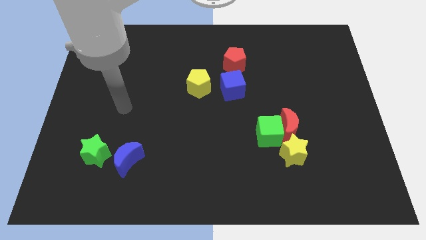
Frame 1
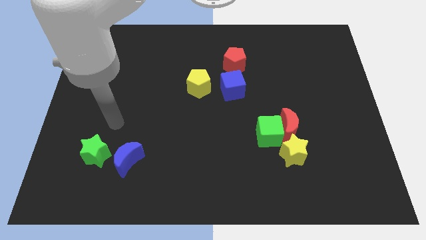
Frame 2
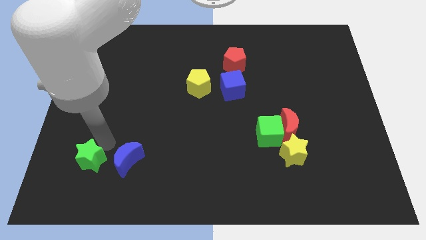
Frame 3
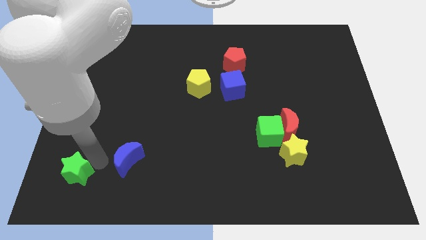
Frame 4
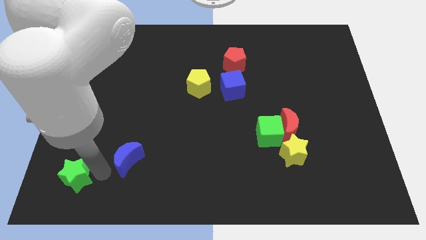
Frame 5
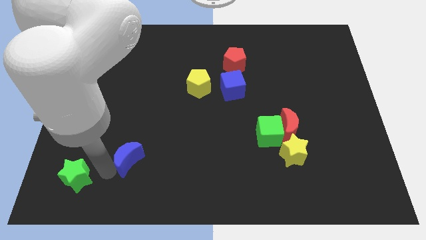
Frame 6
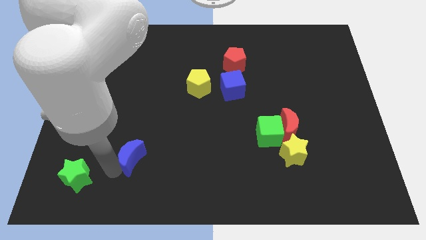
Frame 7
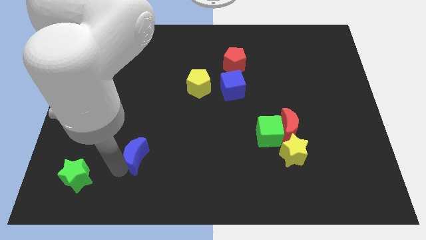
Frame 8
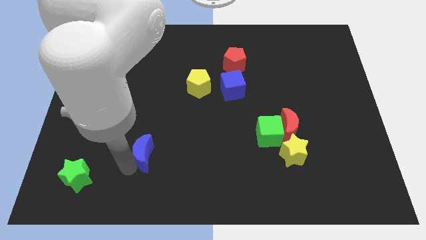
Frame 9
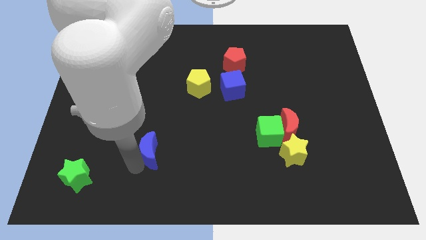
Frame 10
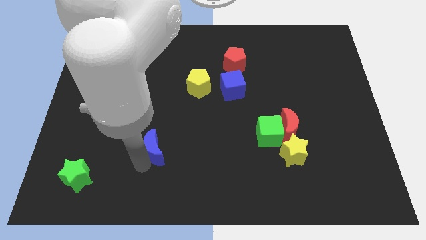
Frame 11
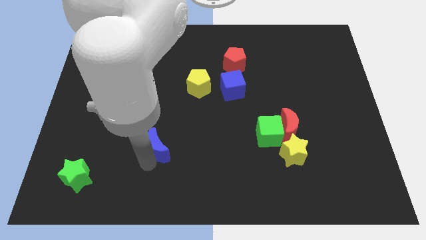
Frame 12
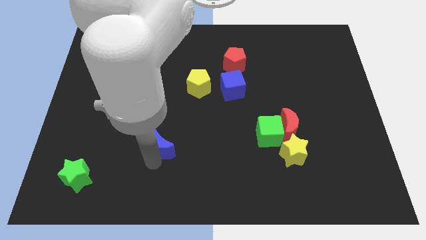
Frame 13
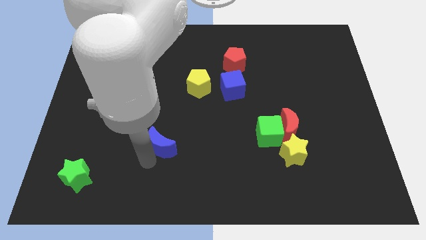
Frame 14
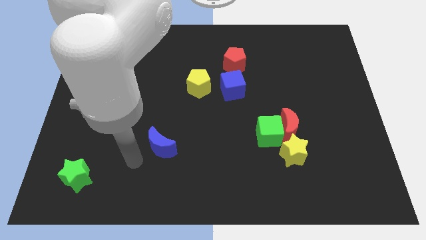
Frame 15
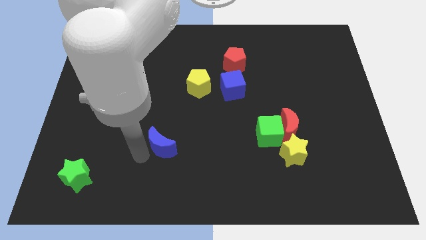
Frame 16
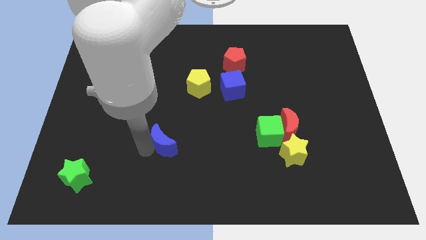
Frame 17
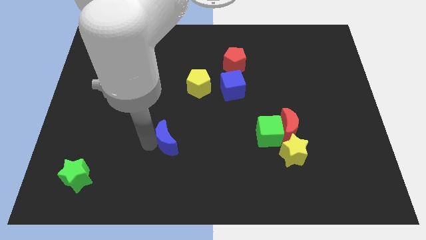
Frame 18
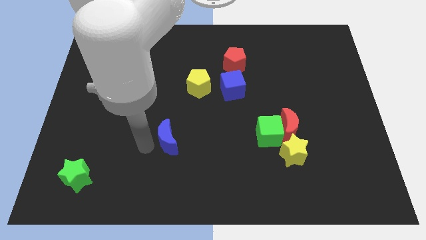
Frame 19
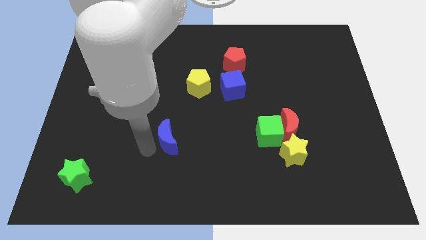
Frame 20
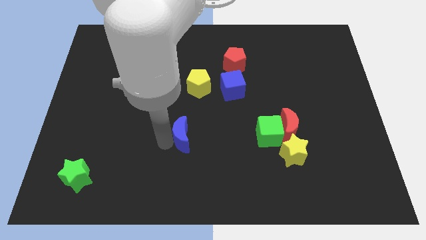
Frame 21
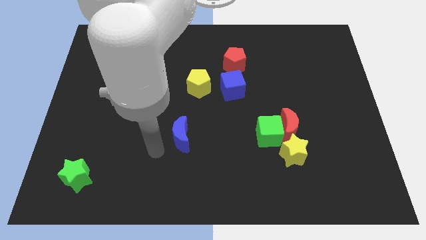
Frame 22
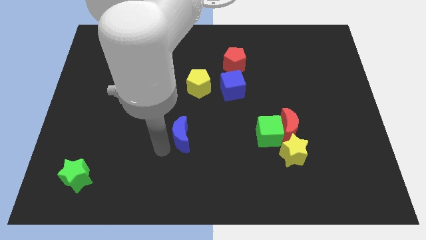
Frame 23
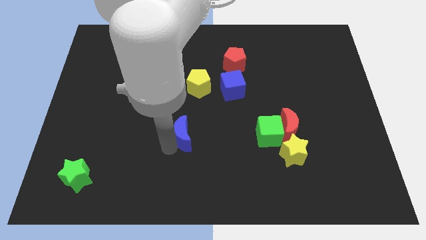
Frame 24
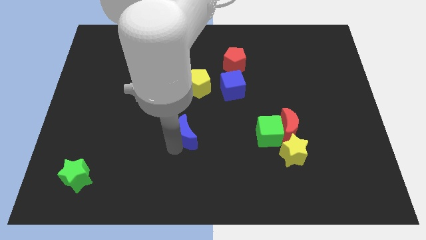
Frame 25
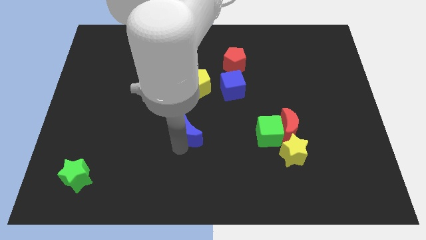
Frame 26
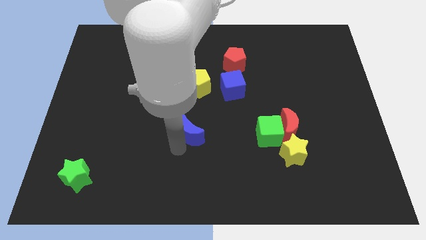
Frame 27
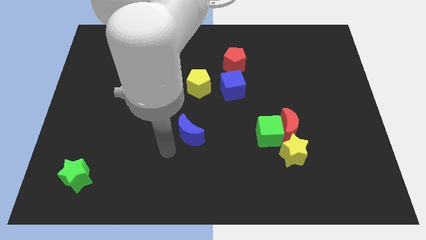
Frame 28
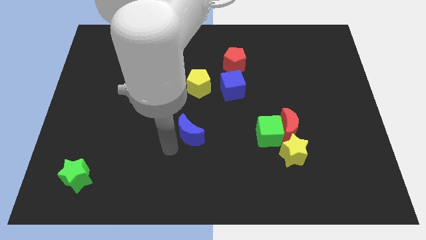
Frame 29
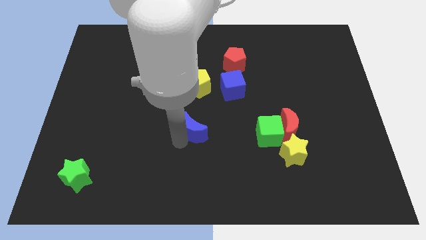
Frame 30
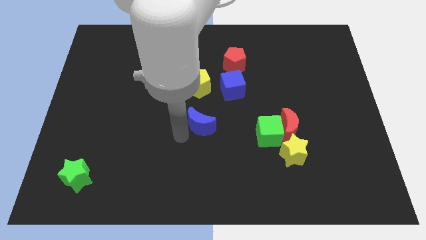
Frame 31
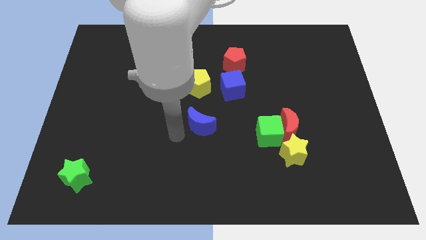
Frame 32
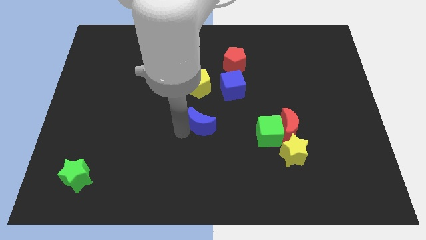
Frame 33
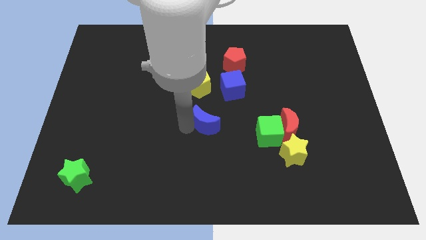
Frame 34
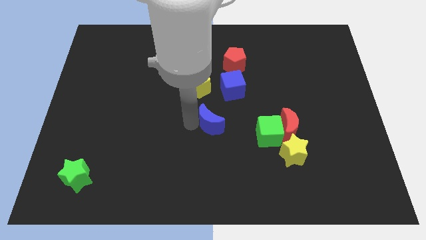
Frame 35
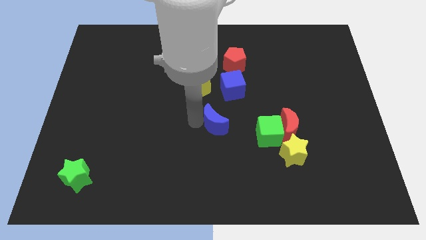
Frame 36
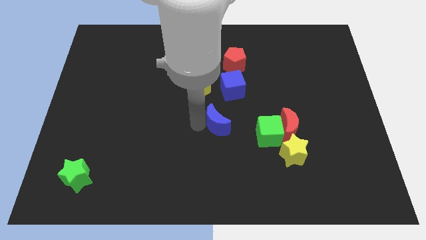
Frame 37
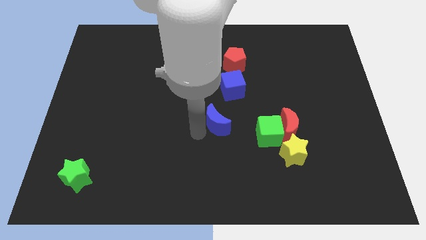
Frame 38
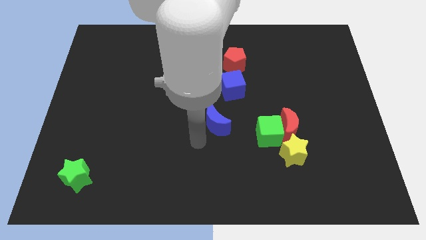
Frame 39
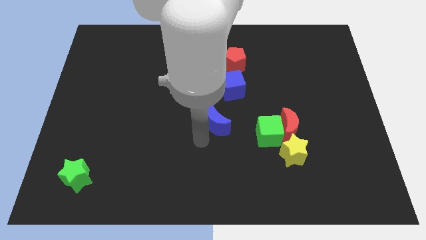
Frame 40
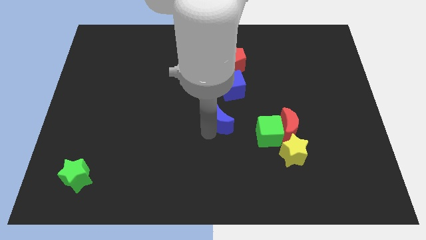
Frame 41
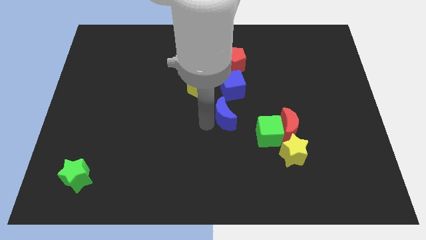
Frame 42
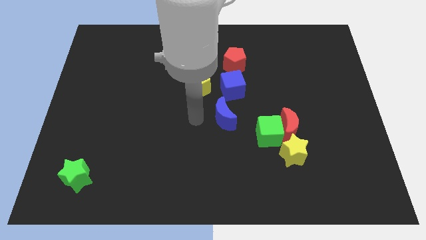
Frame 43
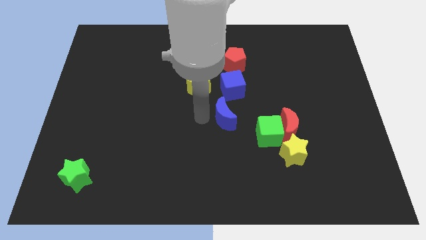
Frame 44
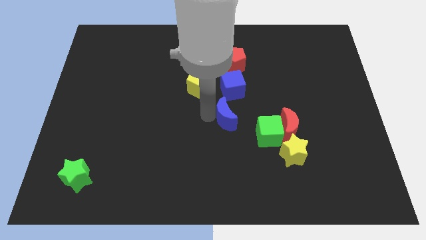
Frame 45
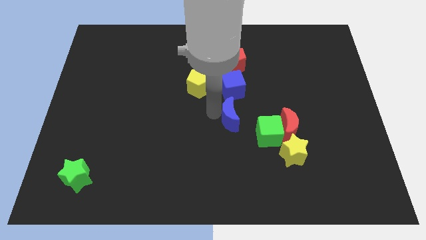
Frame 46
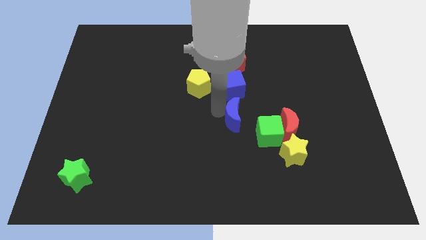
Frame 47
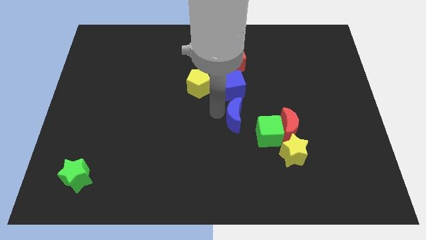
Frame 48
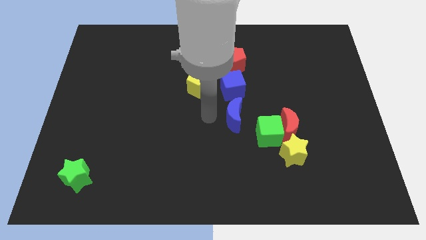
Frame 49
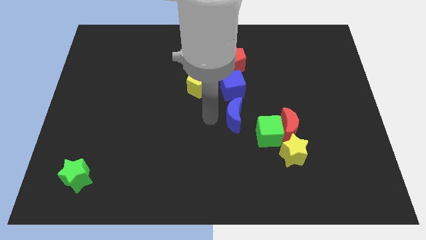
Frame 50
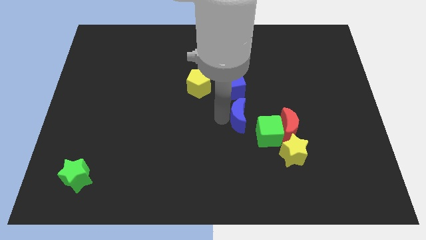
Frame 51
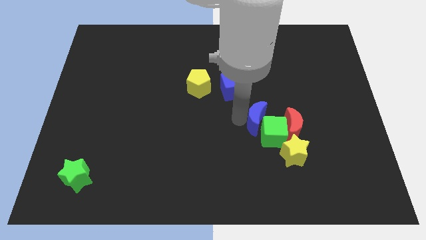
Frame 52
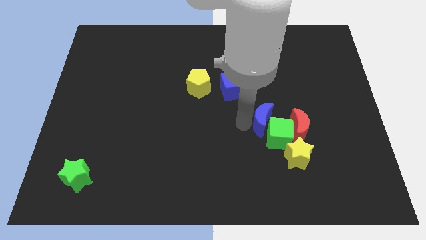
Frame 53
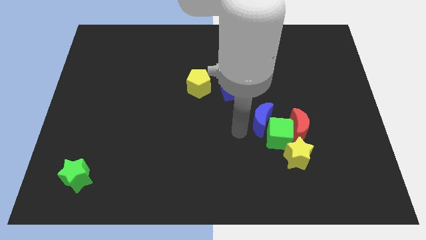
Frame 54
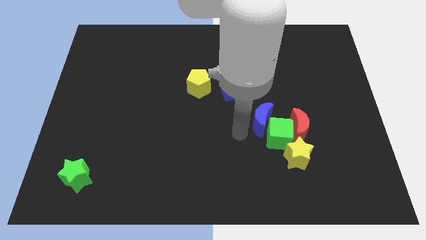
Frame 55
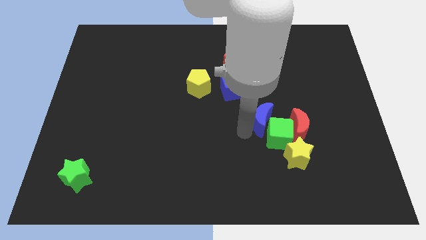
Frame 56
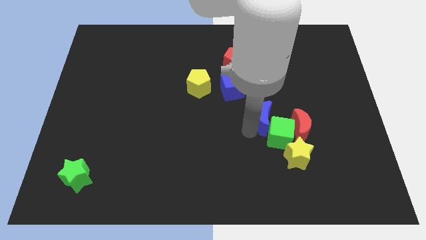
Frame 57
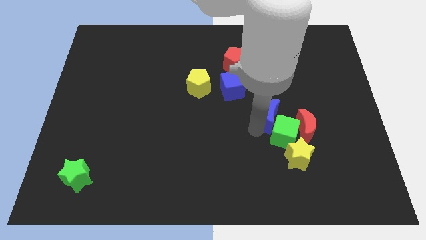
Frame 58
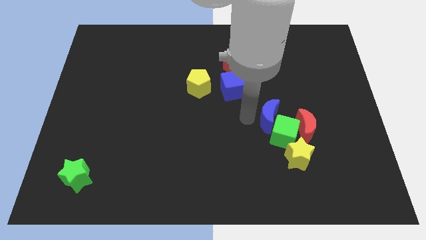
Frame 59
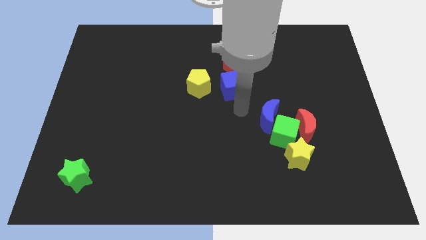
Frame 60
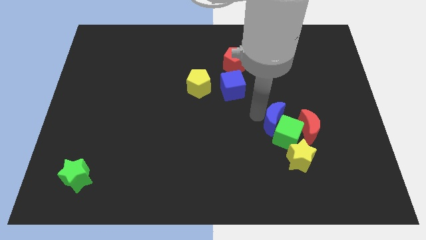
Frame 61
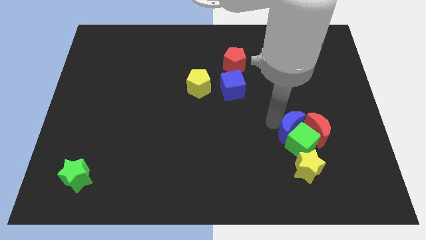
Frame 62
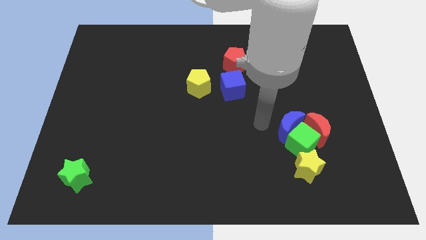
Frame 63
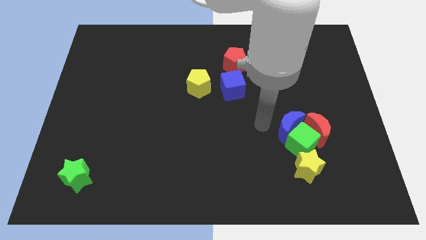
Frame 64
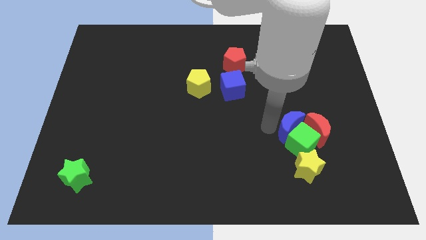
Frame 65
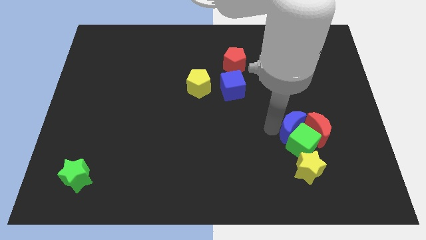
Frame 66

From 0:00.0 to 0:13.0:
slide the blue moon to the red moon

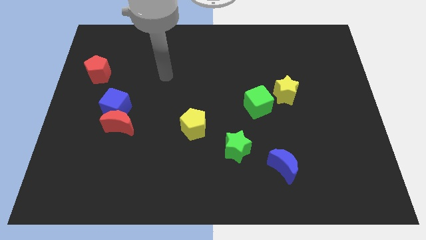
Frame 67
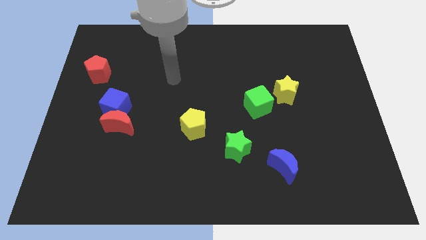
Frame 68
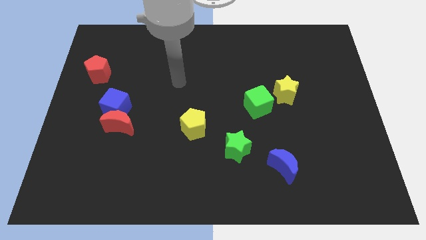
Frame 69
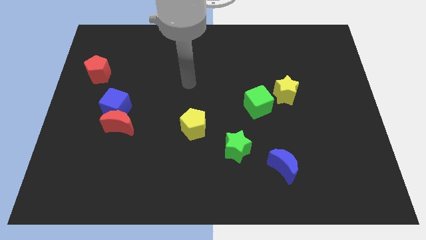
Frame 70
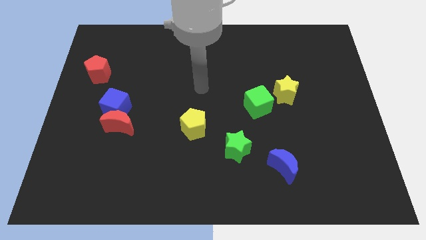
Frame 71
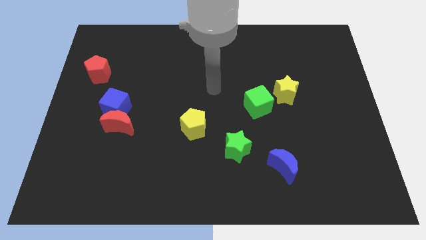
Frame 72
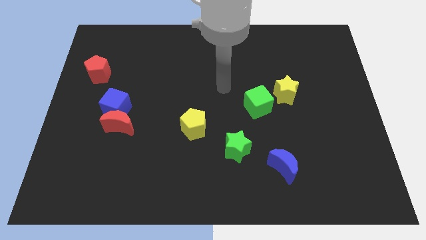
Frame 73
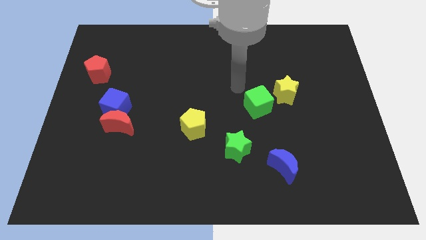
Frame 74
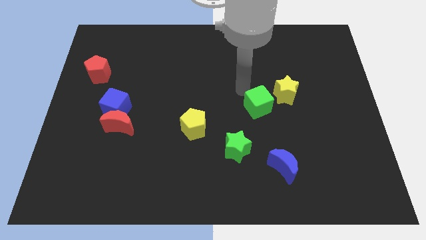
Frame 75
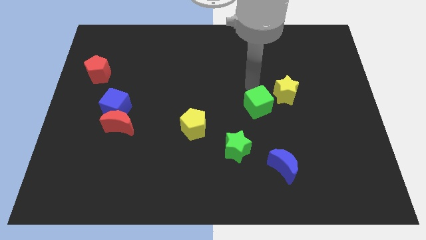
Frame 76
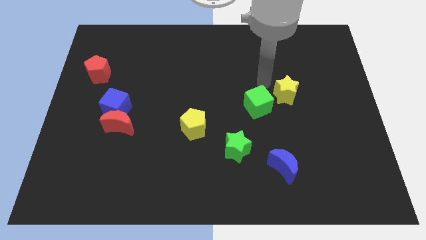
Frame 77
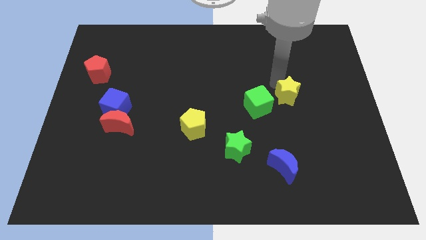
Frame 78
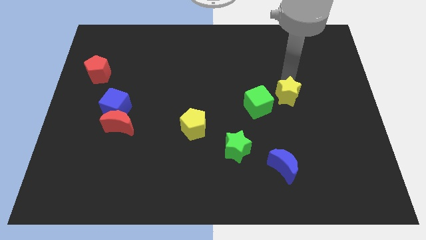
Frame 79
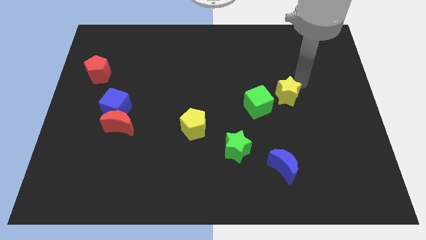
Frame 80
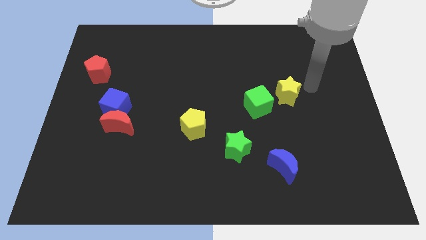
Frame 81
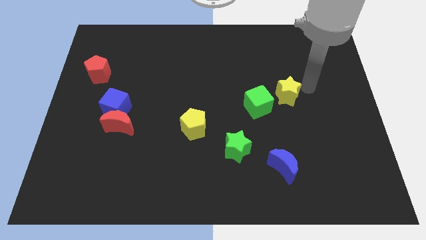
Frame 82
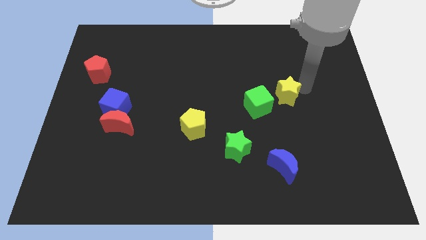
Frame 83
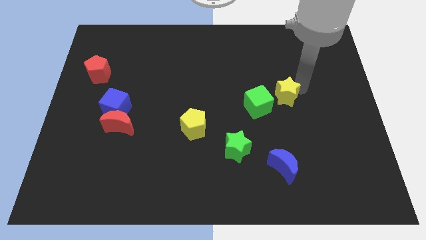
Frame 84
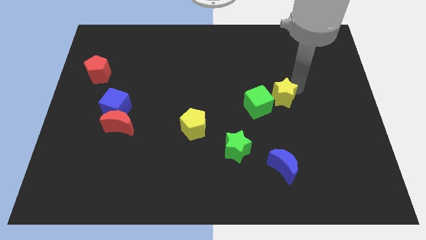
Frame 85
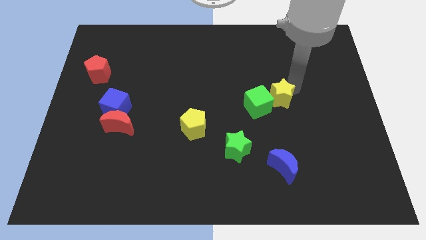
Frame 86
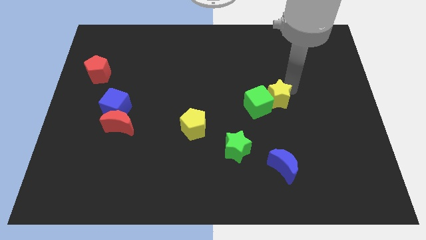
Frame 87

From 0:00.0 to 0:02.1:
move the yellow star close to the green cube
